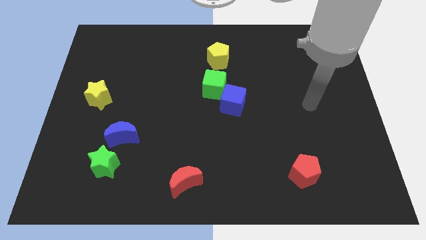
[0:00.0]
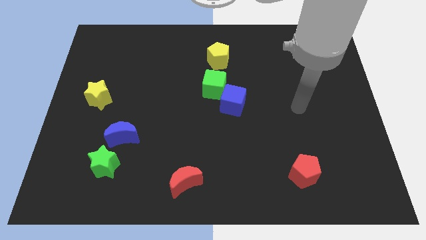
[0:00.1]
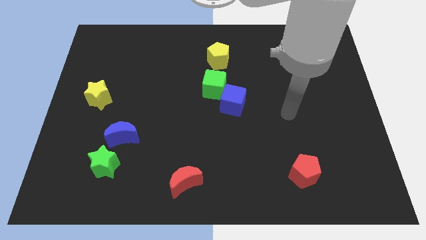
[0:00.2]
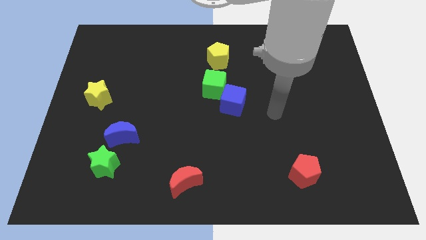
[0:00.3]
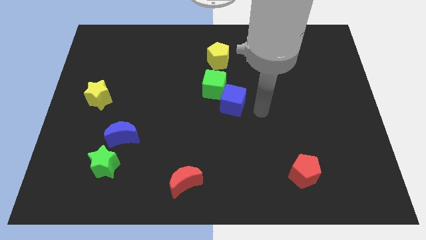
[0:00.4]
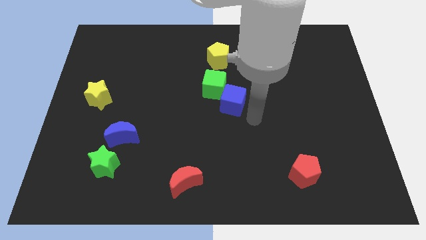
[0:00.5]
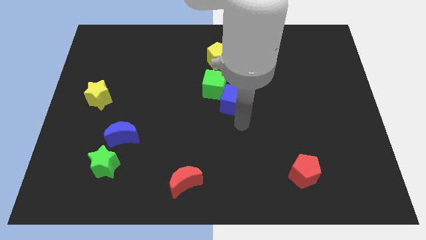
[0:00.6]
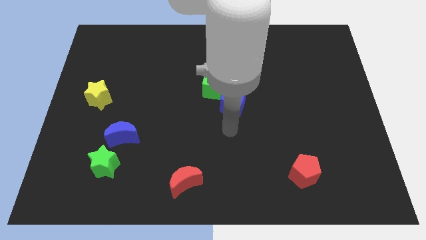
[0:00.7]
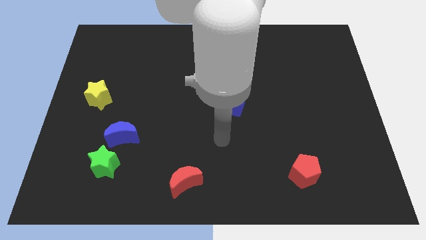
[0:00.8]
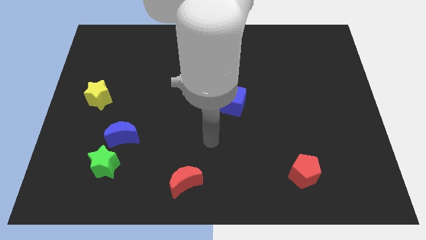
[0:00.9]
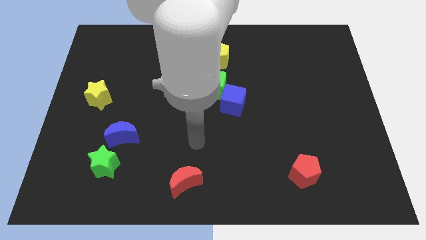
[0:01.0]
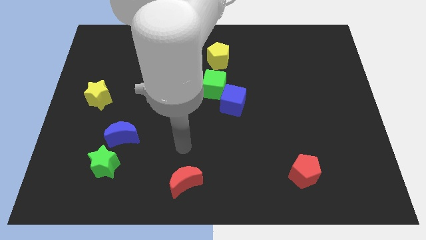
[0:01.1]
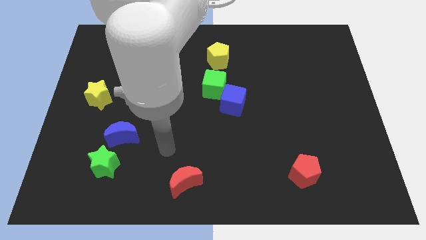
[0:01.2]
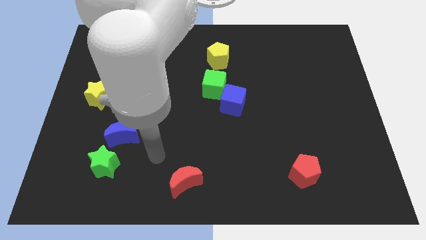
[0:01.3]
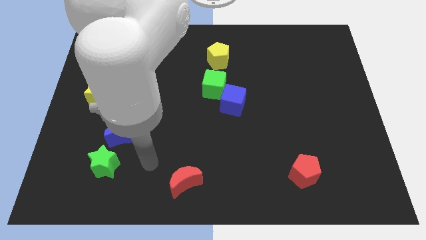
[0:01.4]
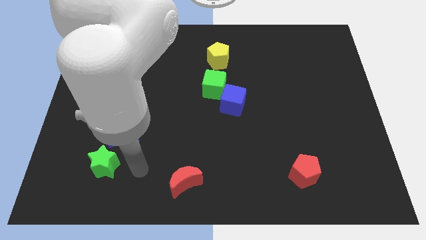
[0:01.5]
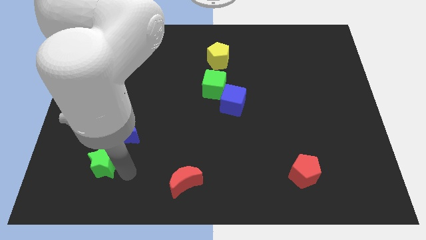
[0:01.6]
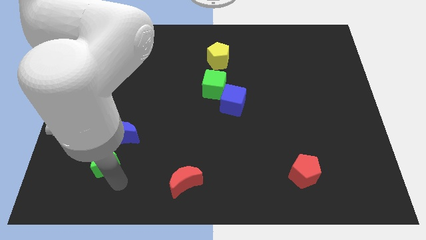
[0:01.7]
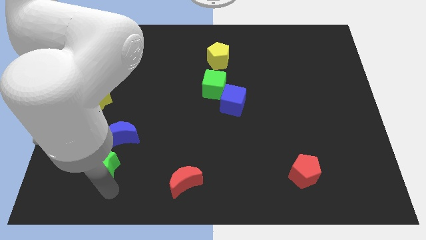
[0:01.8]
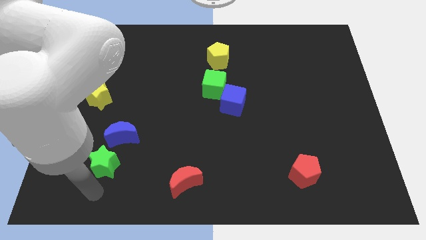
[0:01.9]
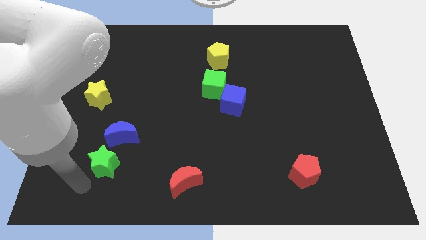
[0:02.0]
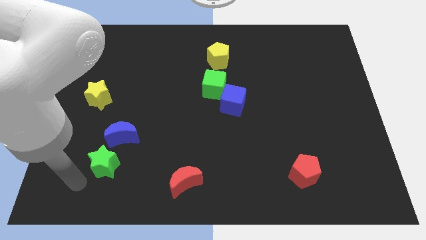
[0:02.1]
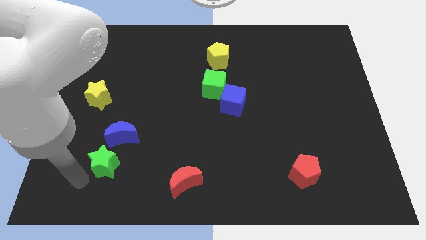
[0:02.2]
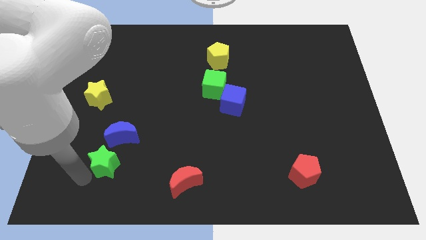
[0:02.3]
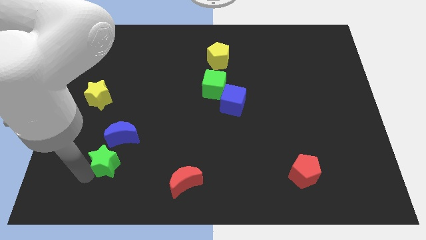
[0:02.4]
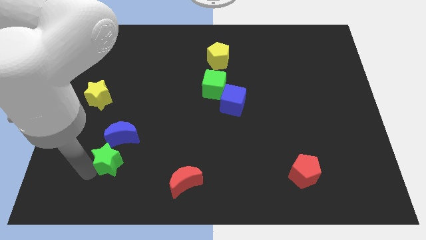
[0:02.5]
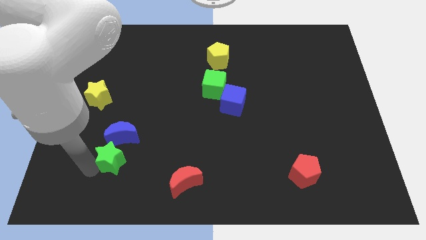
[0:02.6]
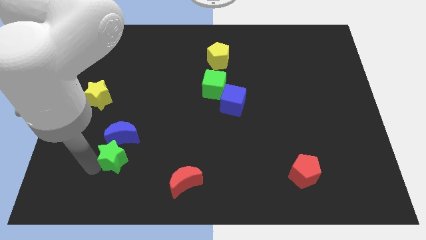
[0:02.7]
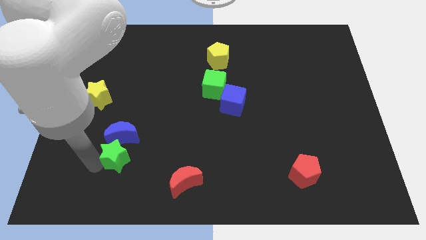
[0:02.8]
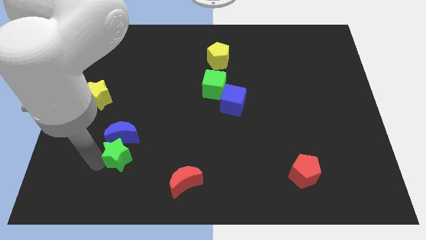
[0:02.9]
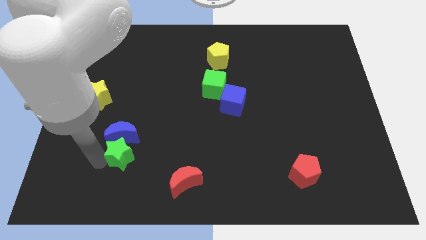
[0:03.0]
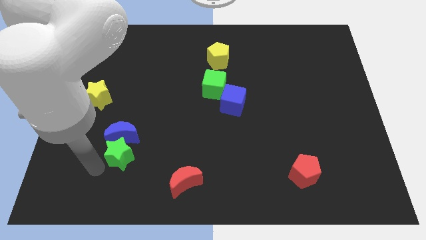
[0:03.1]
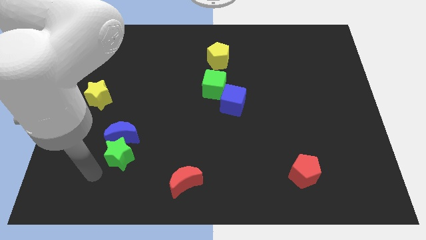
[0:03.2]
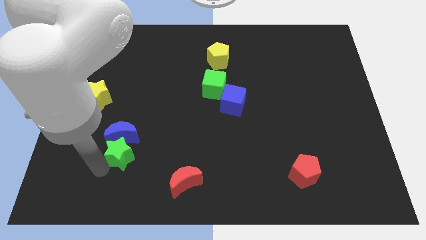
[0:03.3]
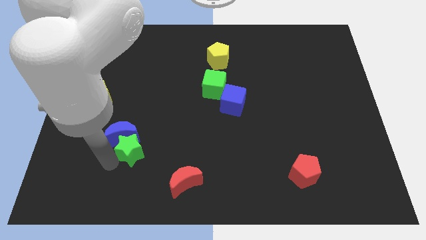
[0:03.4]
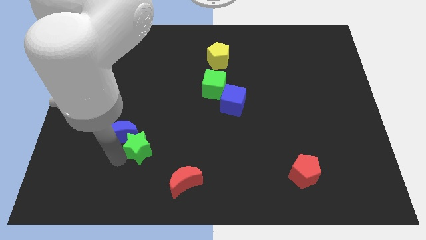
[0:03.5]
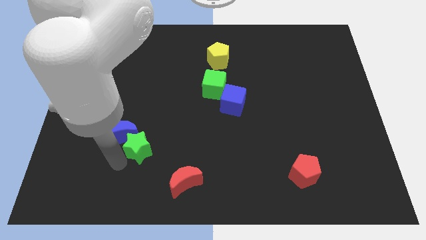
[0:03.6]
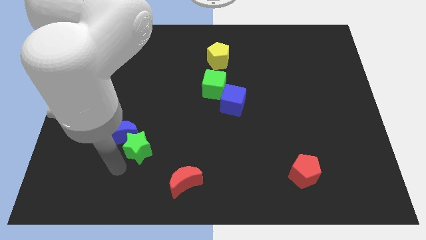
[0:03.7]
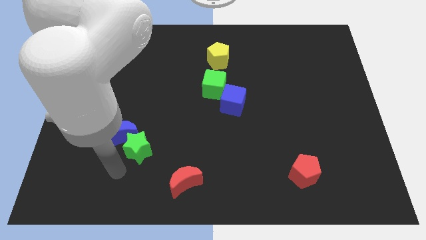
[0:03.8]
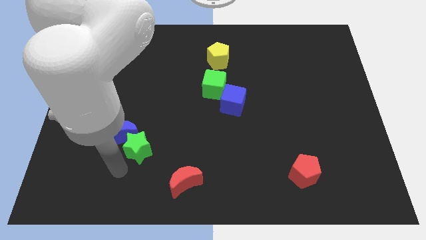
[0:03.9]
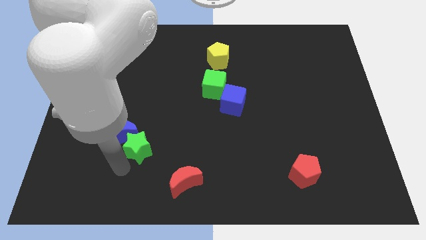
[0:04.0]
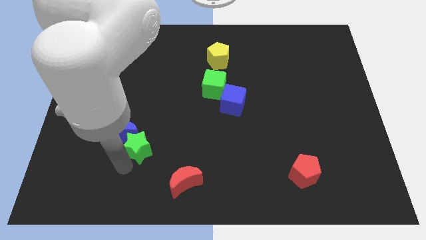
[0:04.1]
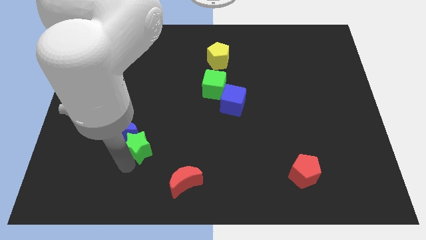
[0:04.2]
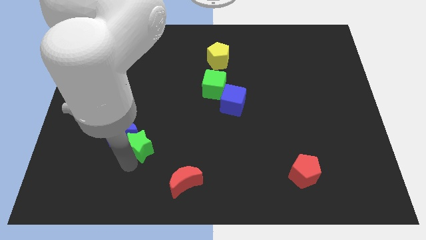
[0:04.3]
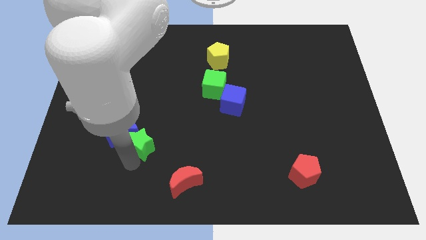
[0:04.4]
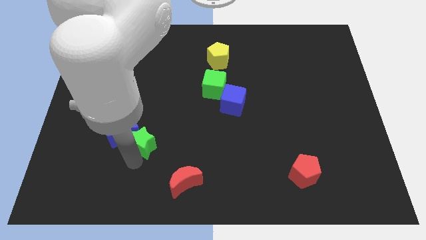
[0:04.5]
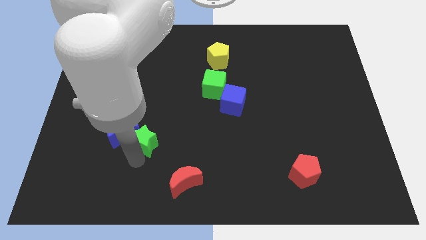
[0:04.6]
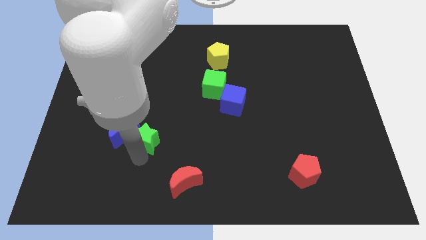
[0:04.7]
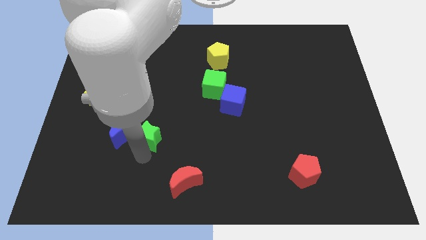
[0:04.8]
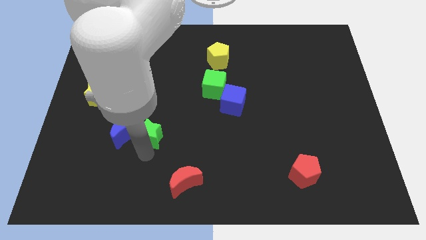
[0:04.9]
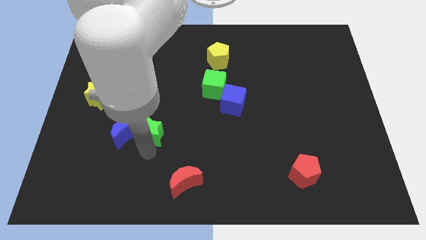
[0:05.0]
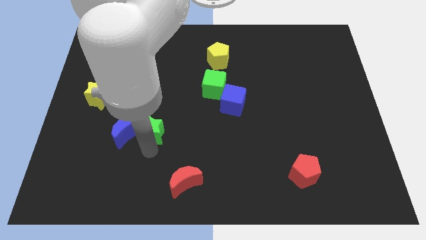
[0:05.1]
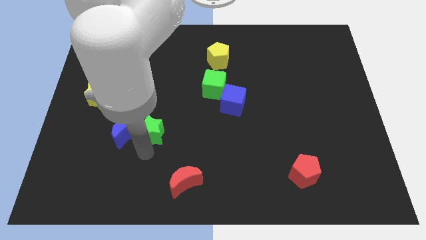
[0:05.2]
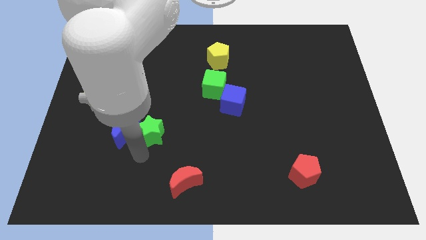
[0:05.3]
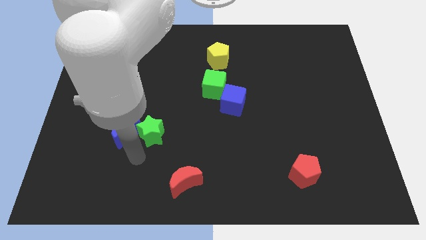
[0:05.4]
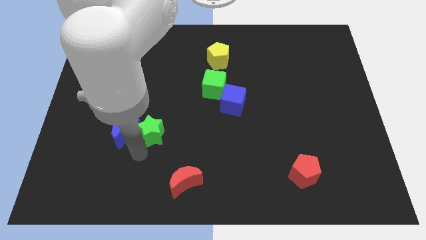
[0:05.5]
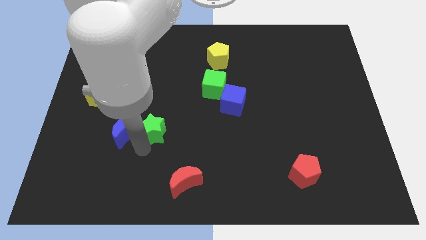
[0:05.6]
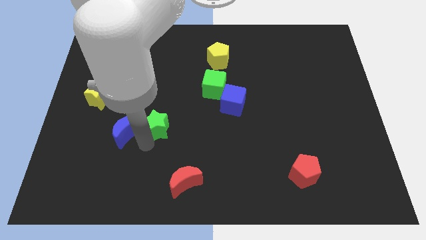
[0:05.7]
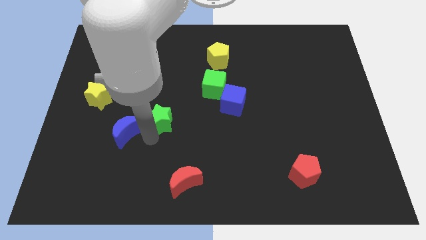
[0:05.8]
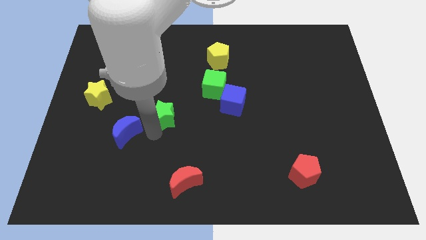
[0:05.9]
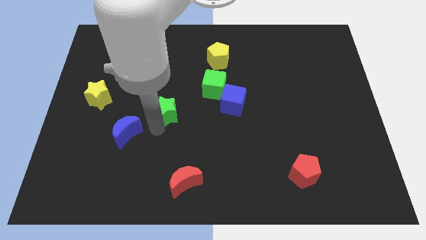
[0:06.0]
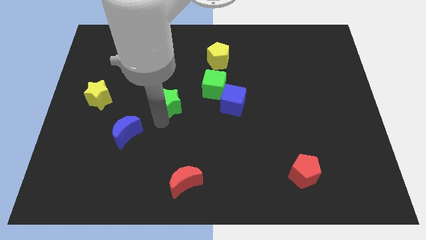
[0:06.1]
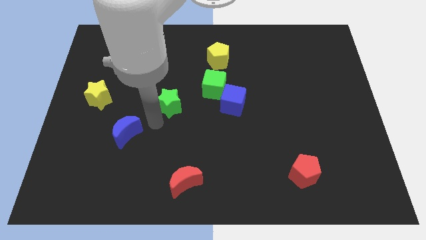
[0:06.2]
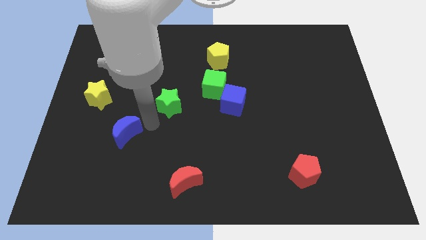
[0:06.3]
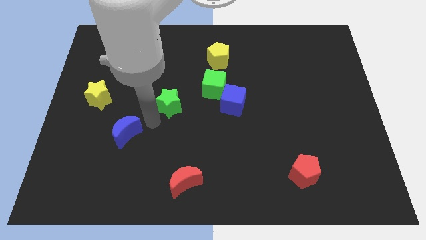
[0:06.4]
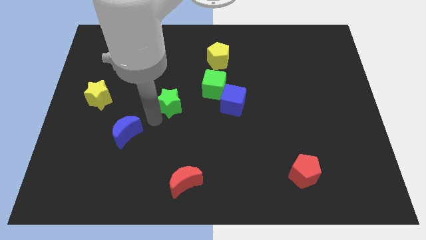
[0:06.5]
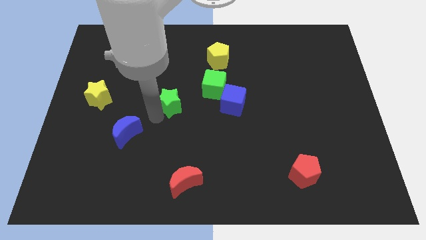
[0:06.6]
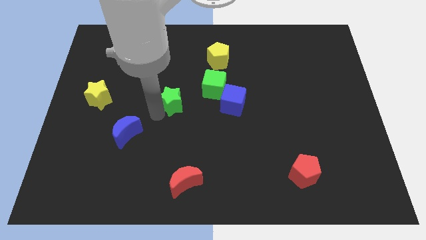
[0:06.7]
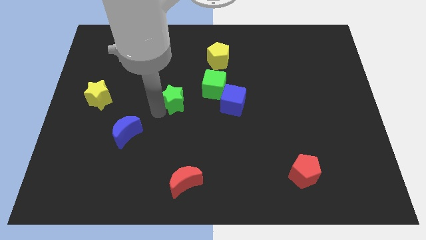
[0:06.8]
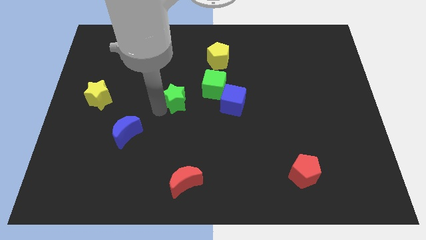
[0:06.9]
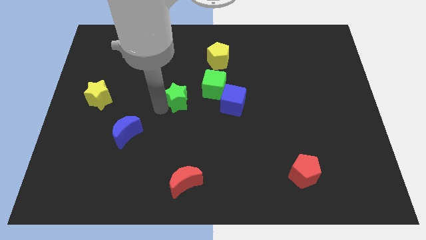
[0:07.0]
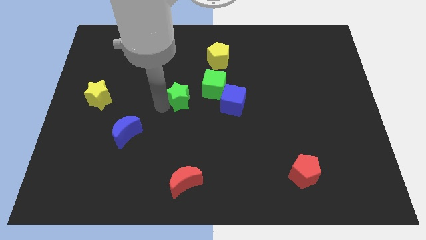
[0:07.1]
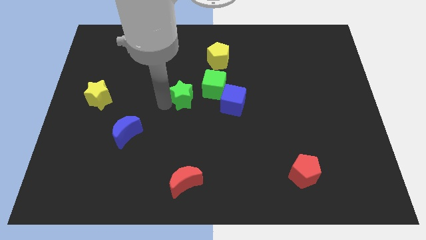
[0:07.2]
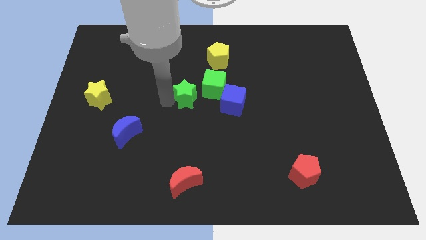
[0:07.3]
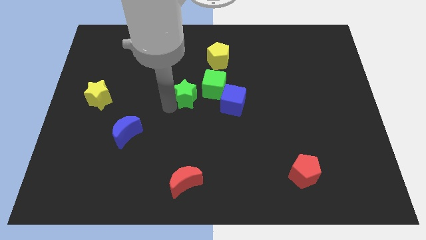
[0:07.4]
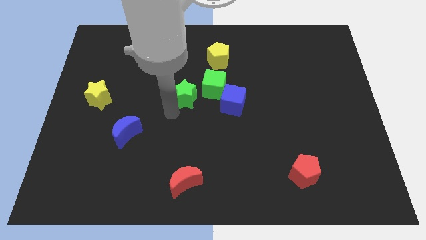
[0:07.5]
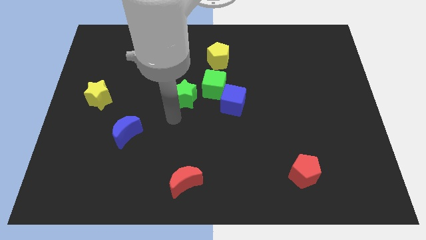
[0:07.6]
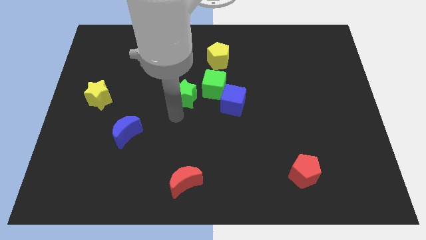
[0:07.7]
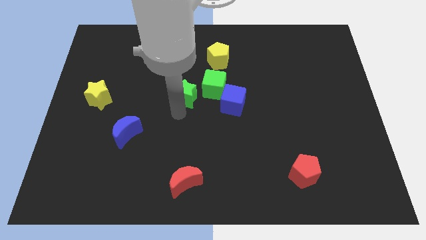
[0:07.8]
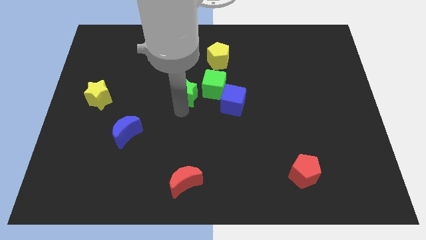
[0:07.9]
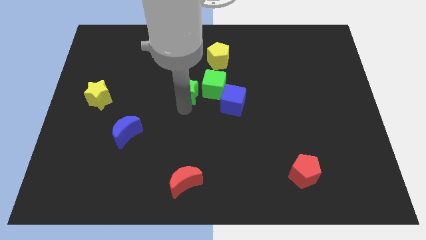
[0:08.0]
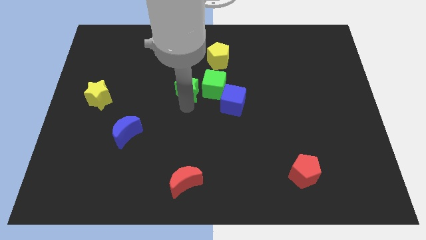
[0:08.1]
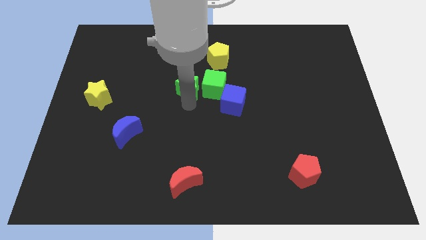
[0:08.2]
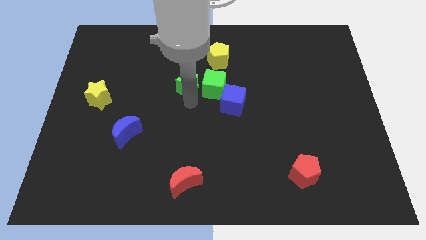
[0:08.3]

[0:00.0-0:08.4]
push the green star diagonally down and to the left of the yellow pentagon
